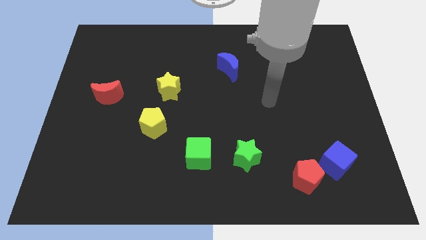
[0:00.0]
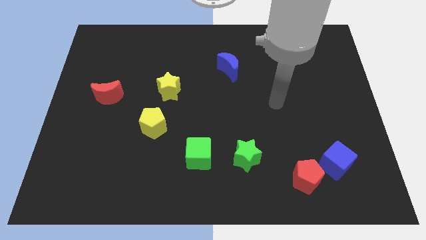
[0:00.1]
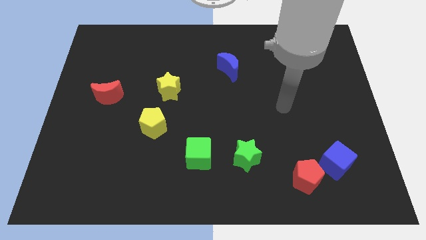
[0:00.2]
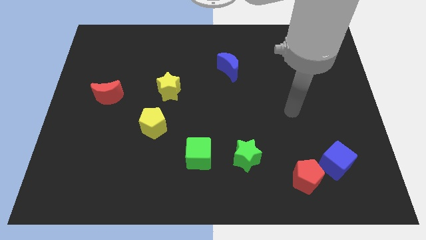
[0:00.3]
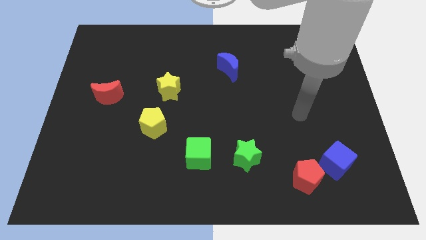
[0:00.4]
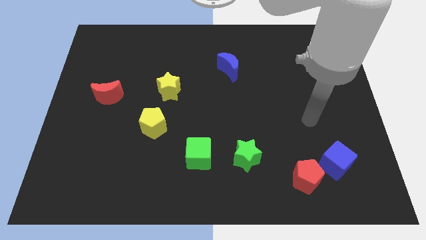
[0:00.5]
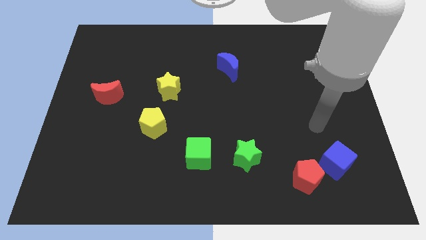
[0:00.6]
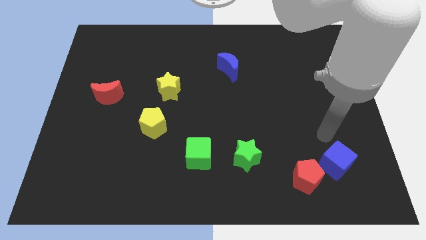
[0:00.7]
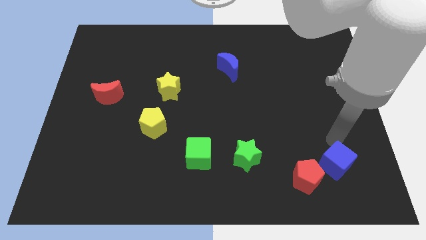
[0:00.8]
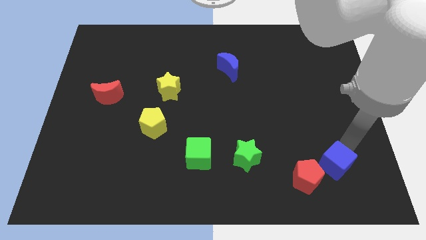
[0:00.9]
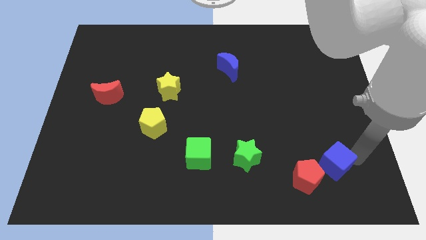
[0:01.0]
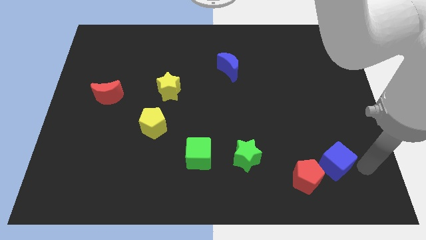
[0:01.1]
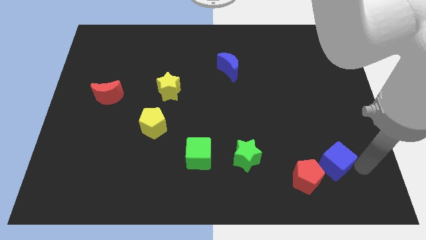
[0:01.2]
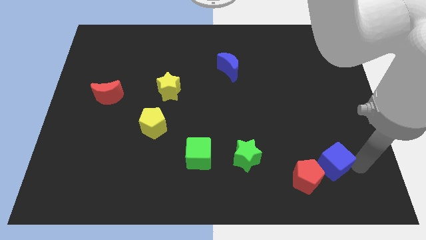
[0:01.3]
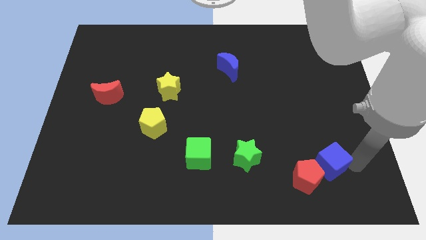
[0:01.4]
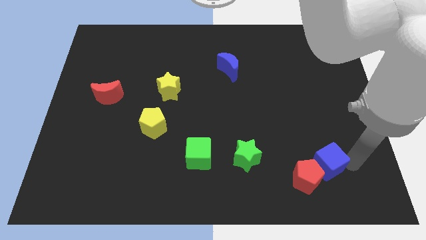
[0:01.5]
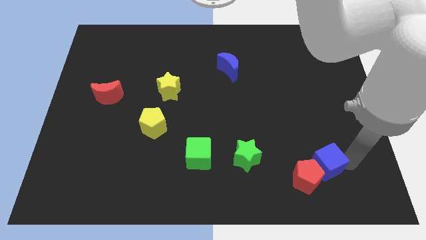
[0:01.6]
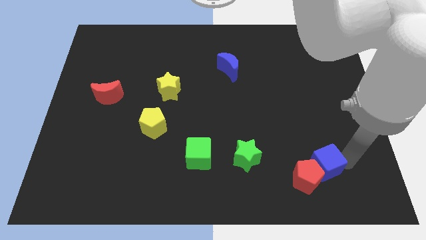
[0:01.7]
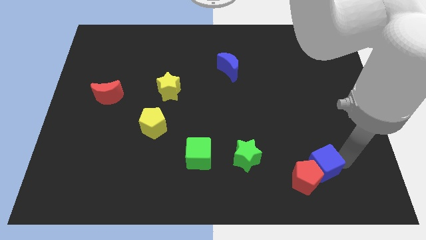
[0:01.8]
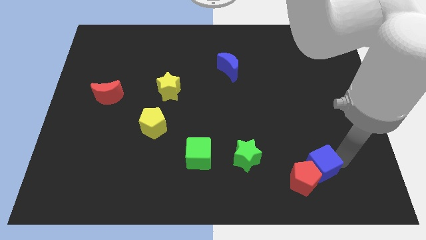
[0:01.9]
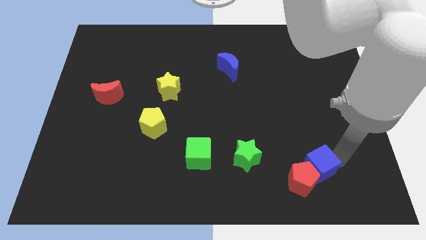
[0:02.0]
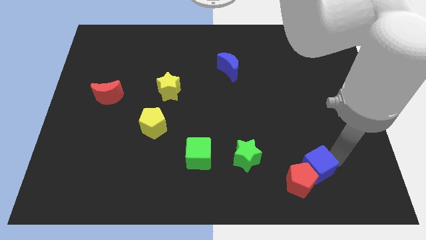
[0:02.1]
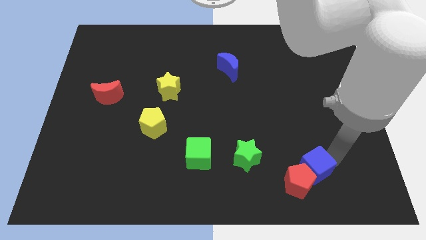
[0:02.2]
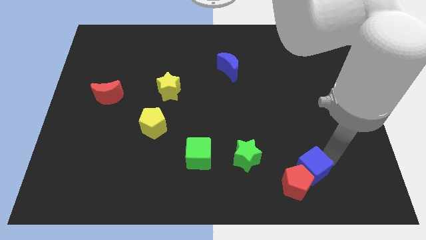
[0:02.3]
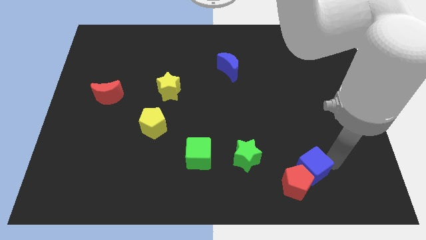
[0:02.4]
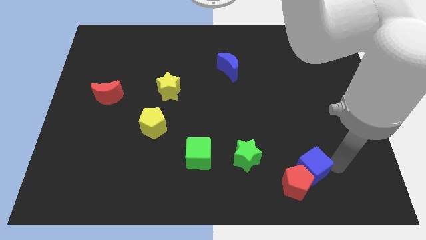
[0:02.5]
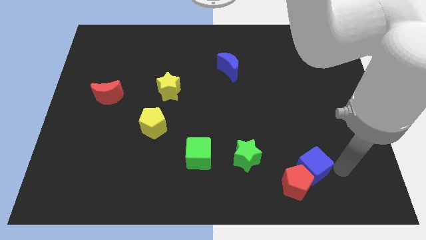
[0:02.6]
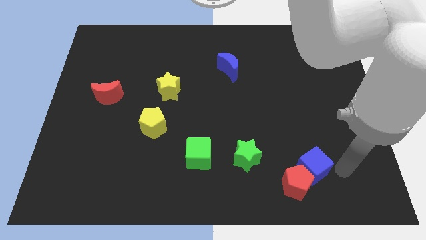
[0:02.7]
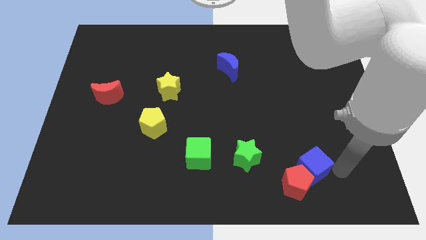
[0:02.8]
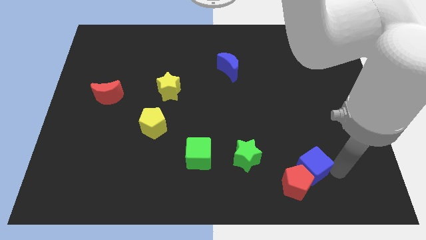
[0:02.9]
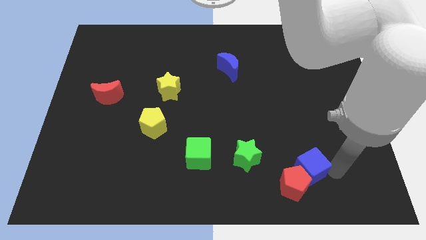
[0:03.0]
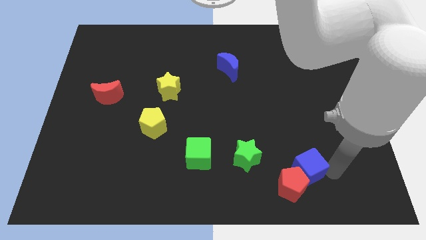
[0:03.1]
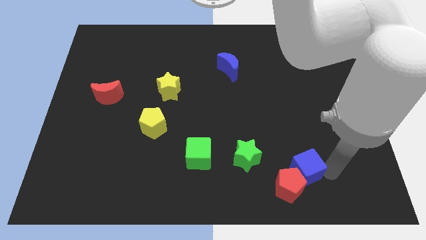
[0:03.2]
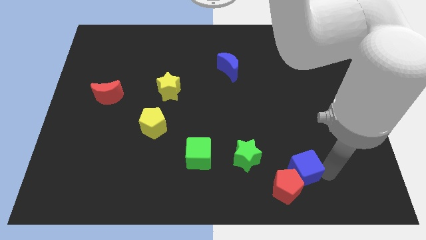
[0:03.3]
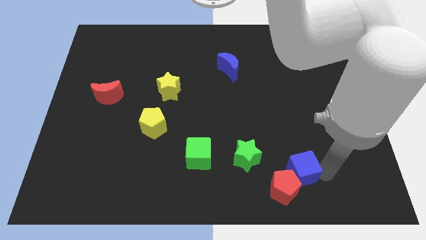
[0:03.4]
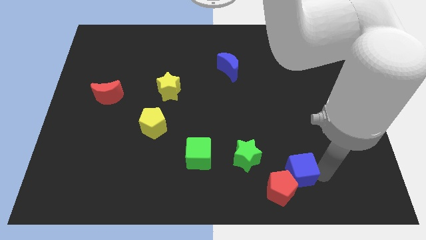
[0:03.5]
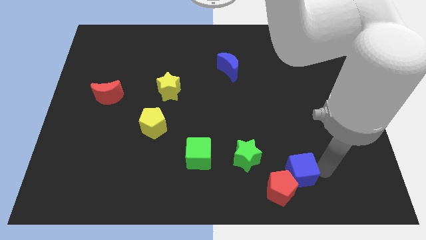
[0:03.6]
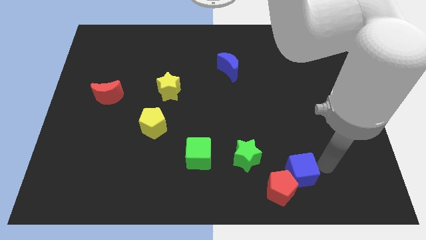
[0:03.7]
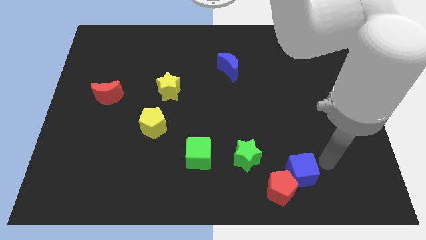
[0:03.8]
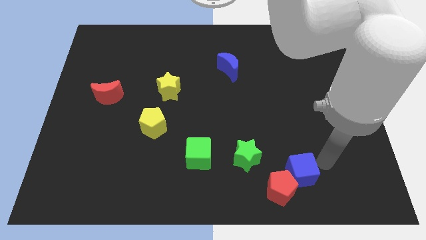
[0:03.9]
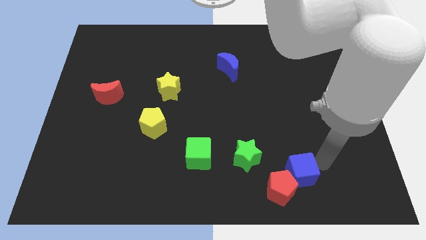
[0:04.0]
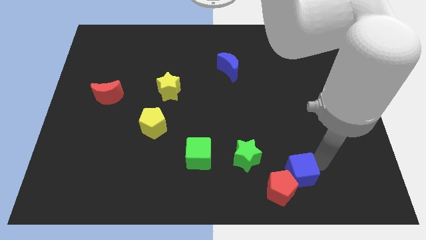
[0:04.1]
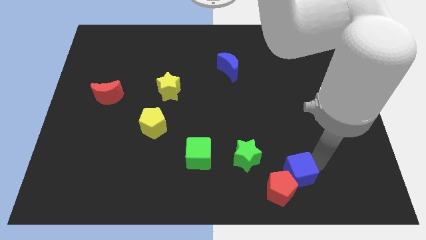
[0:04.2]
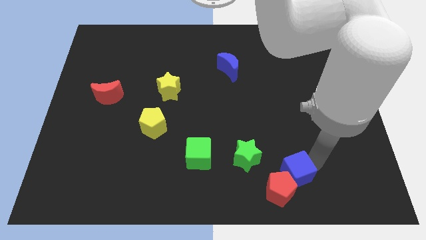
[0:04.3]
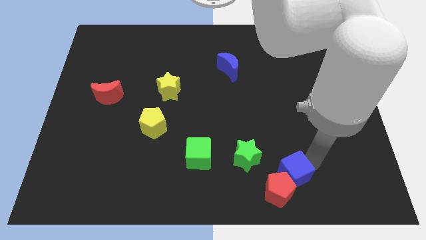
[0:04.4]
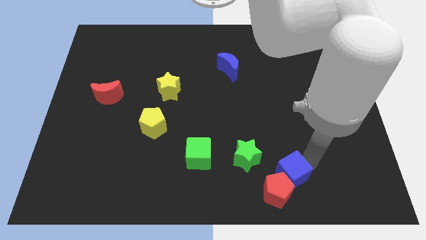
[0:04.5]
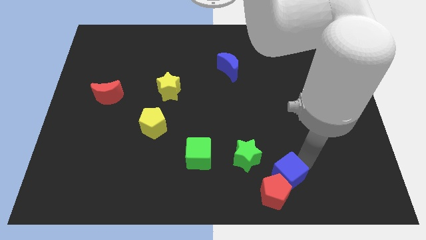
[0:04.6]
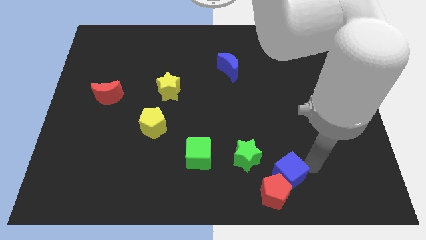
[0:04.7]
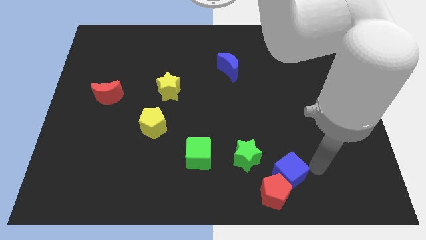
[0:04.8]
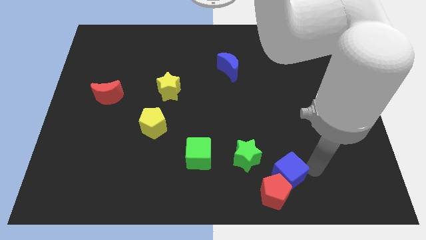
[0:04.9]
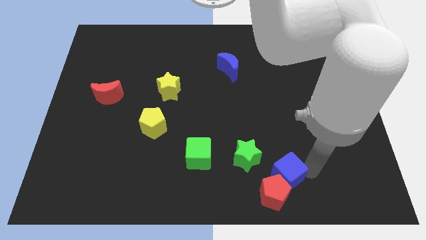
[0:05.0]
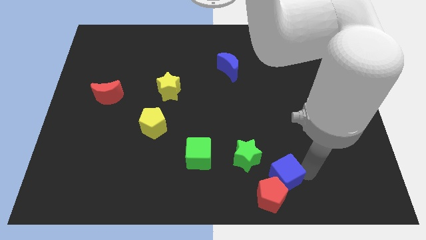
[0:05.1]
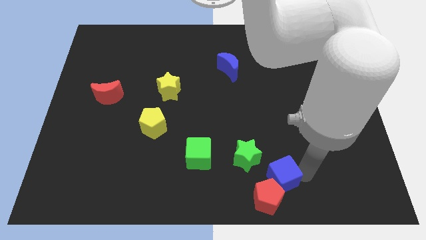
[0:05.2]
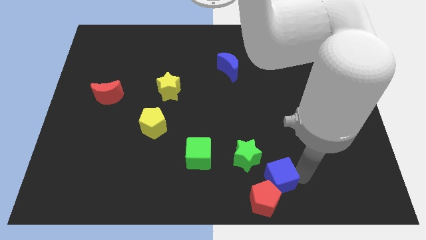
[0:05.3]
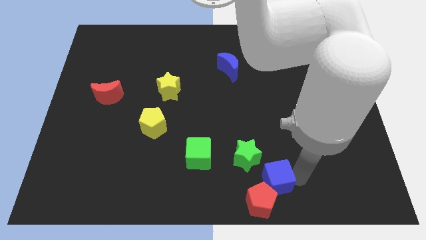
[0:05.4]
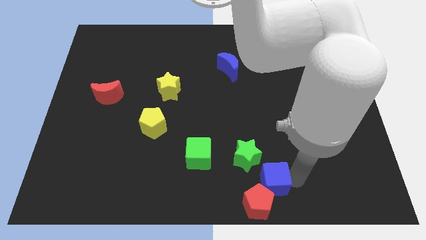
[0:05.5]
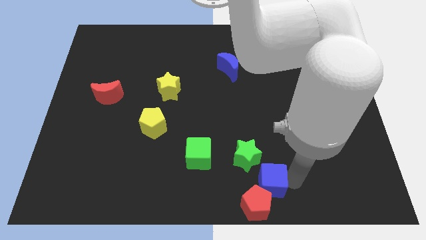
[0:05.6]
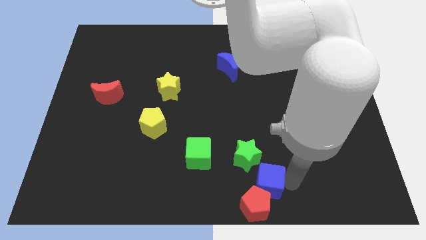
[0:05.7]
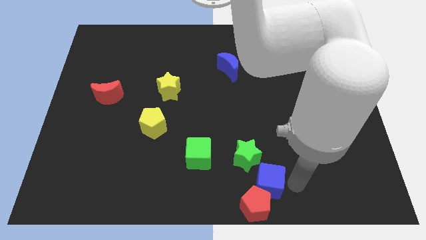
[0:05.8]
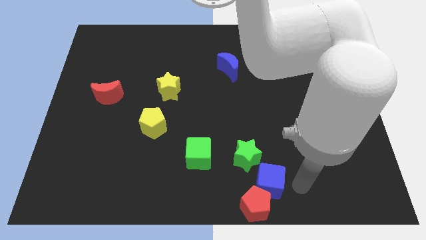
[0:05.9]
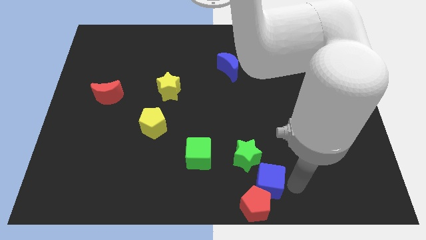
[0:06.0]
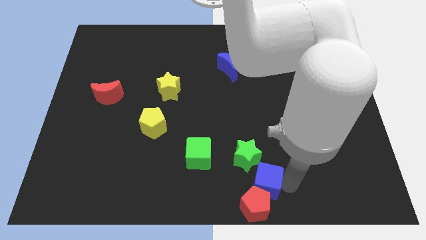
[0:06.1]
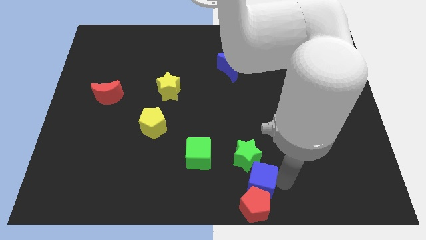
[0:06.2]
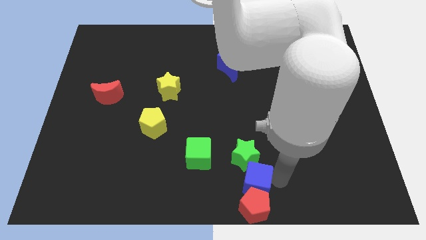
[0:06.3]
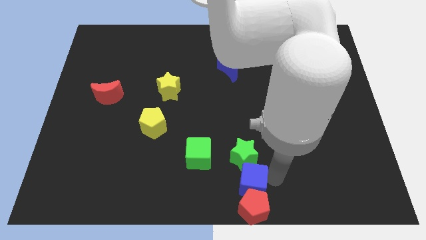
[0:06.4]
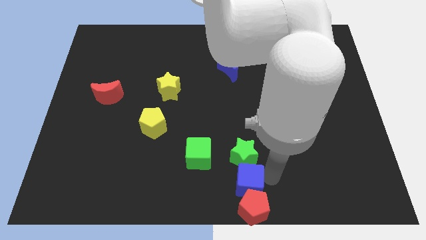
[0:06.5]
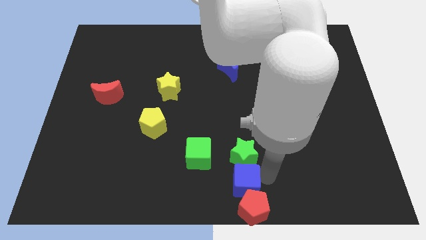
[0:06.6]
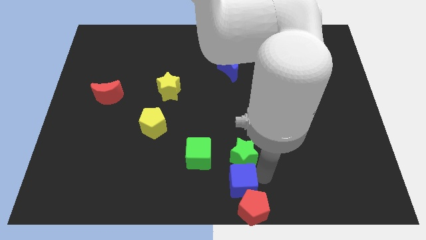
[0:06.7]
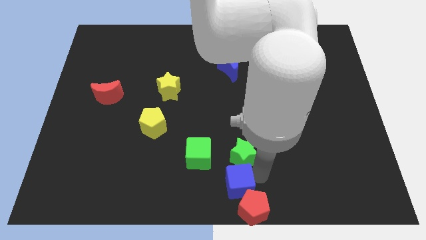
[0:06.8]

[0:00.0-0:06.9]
push the blue cube to the left

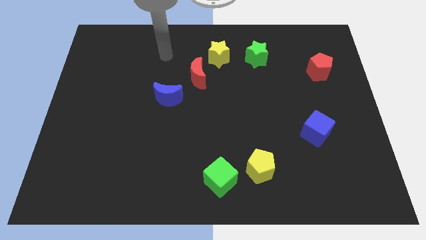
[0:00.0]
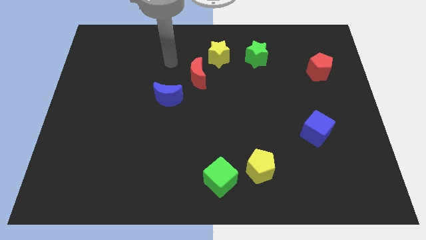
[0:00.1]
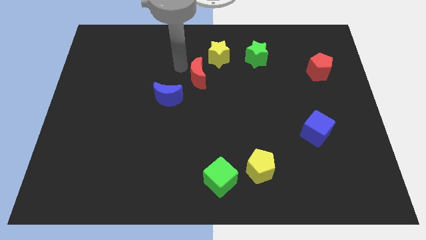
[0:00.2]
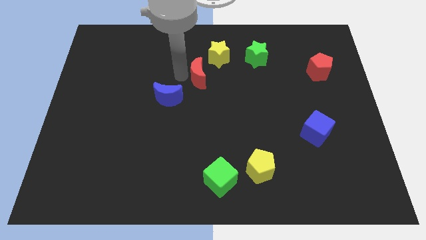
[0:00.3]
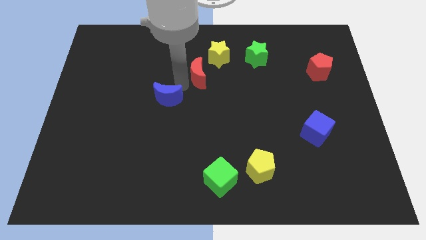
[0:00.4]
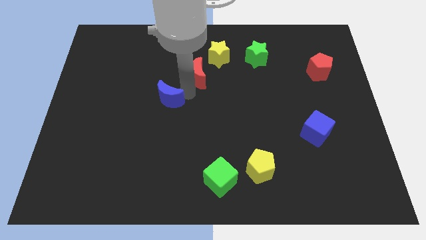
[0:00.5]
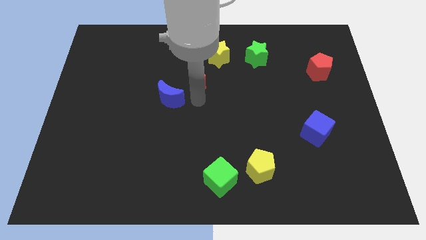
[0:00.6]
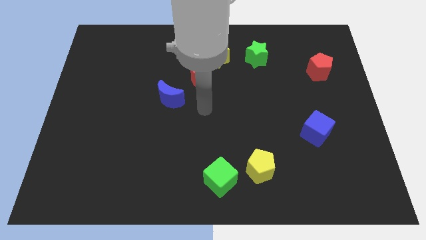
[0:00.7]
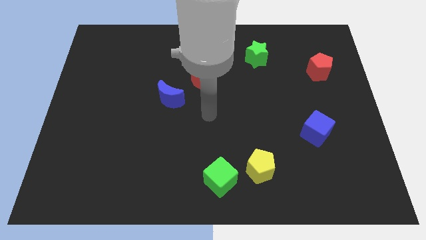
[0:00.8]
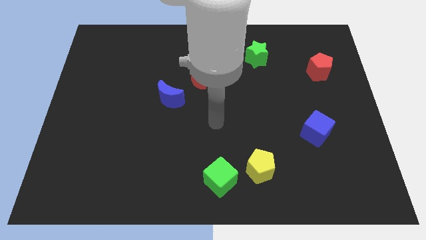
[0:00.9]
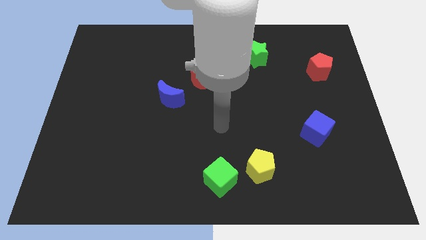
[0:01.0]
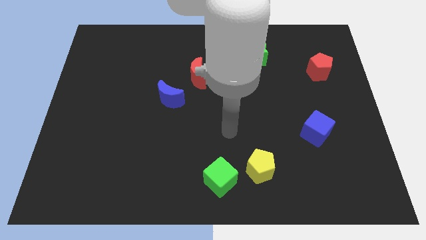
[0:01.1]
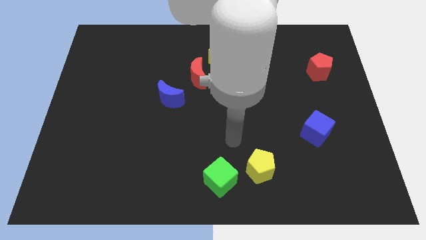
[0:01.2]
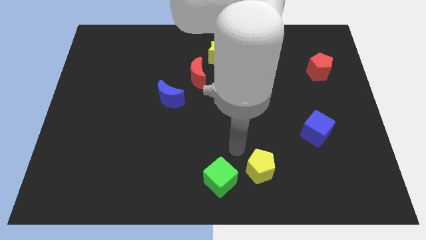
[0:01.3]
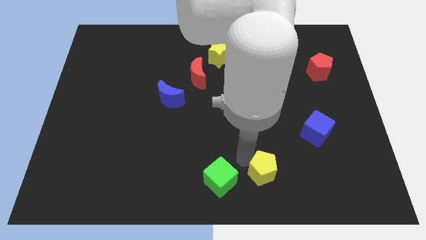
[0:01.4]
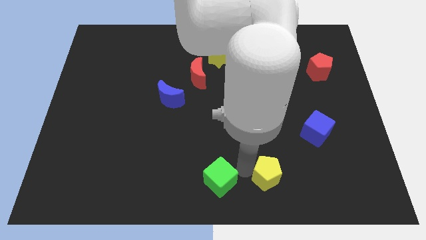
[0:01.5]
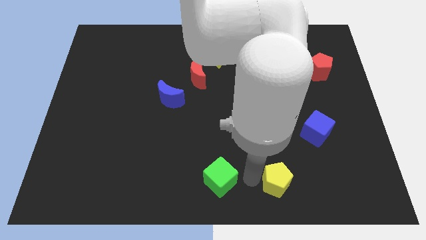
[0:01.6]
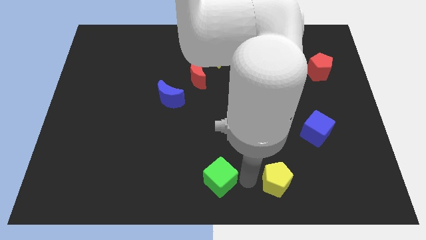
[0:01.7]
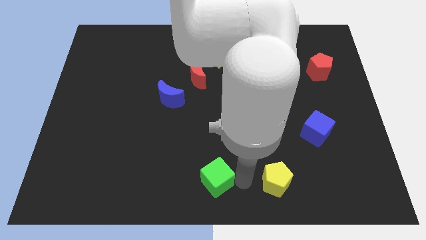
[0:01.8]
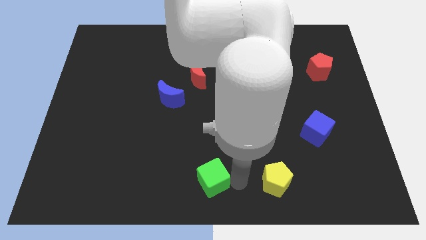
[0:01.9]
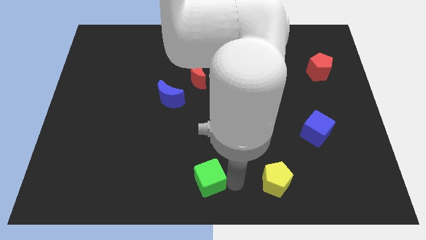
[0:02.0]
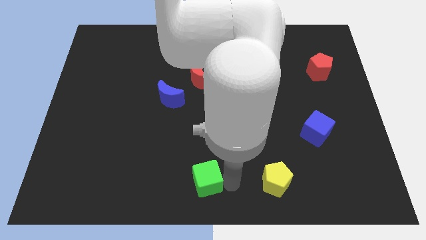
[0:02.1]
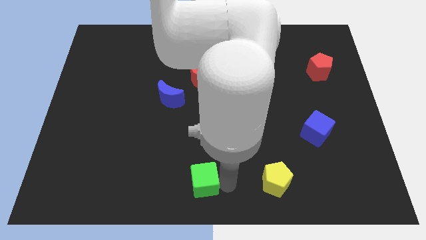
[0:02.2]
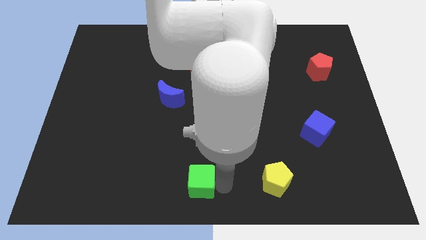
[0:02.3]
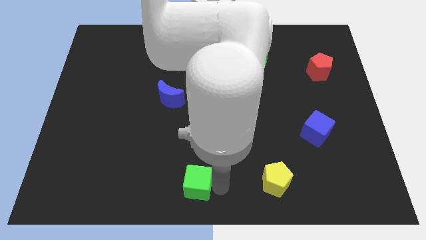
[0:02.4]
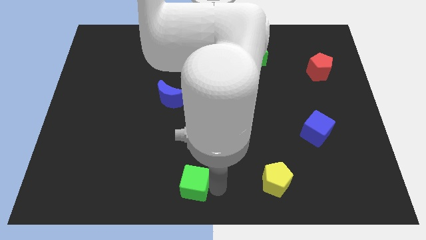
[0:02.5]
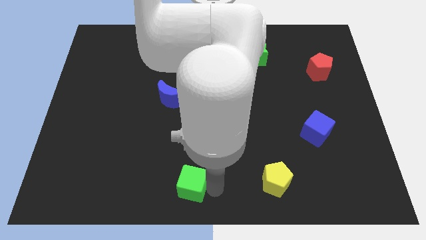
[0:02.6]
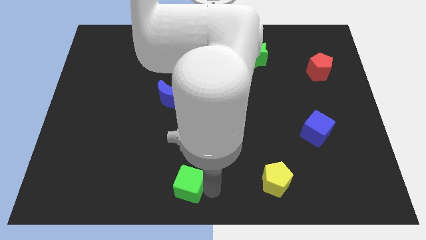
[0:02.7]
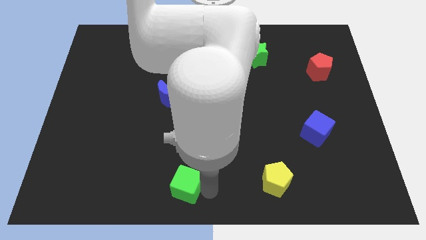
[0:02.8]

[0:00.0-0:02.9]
push the green cube a little left
